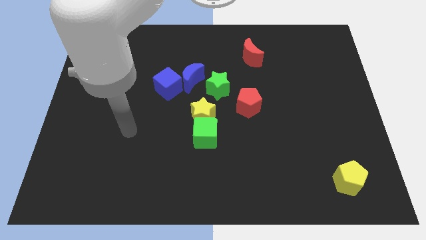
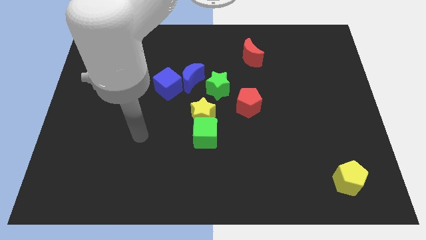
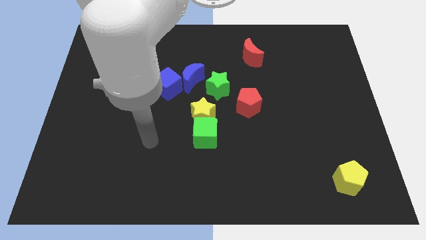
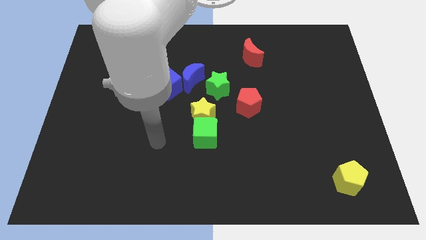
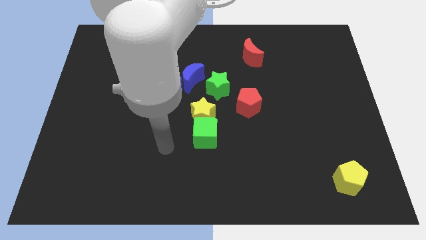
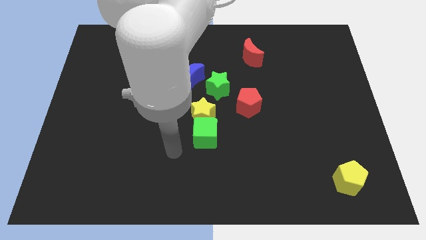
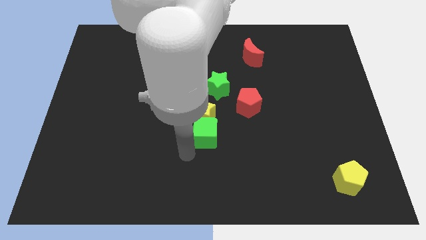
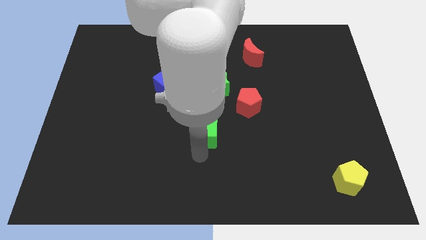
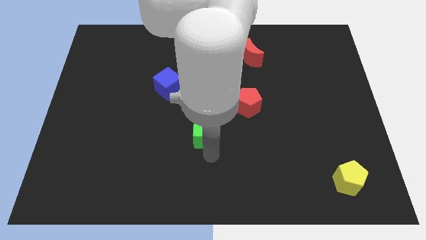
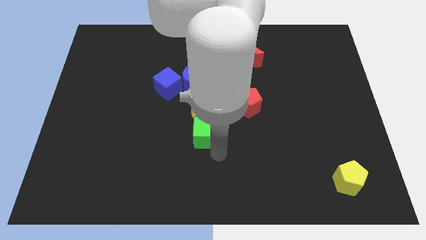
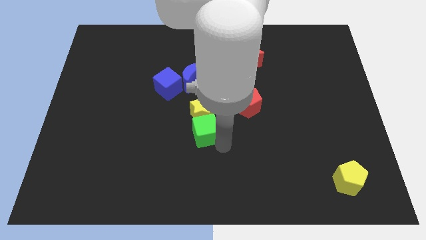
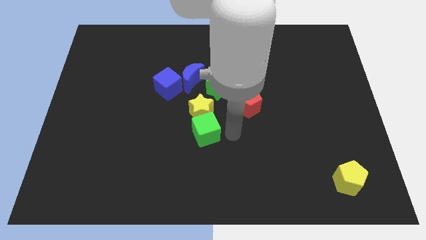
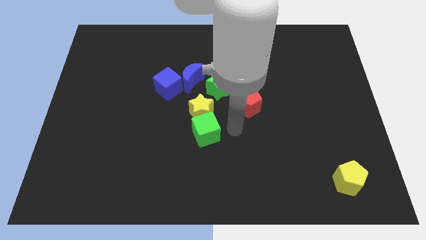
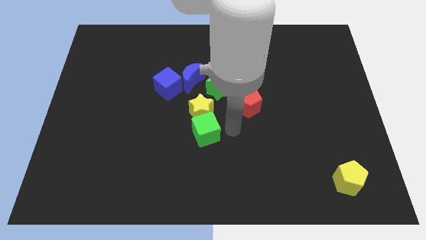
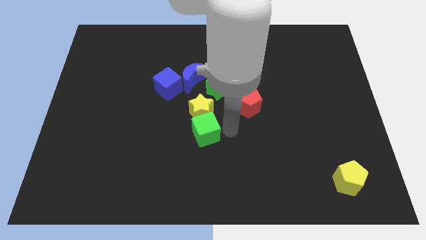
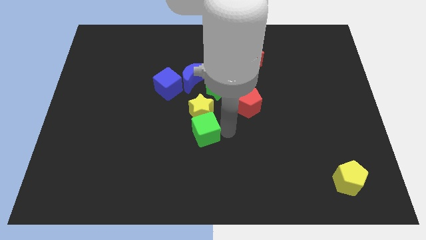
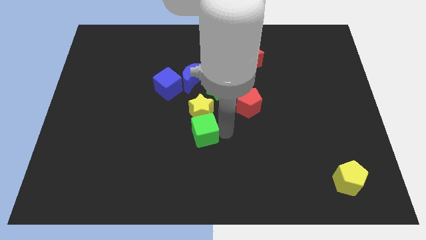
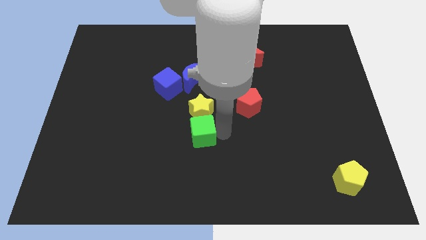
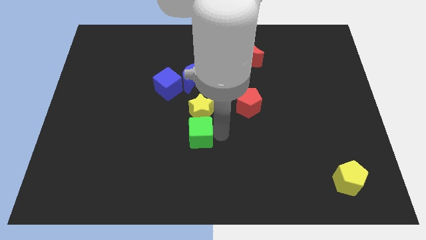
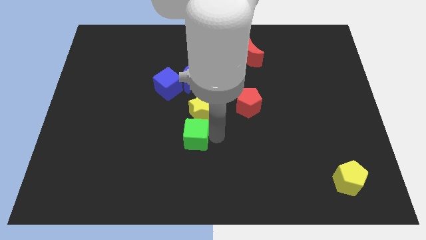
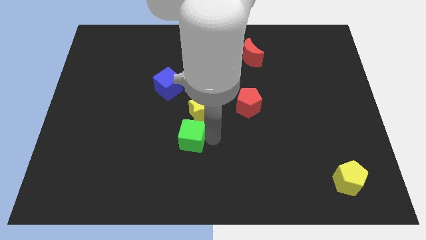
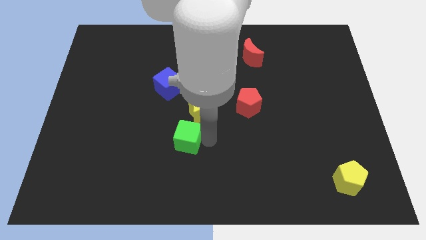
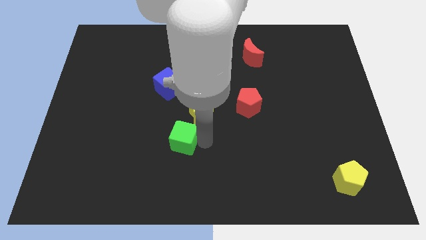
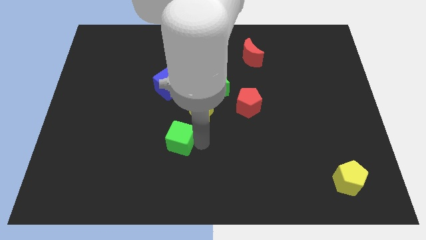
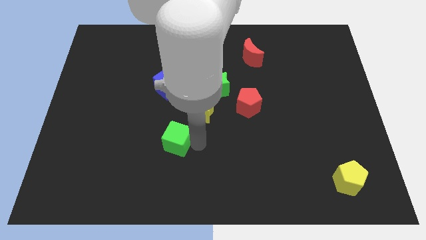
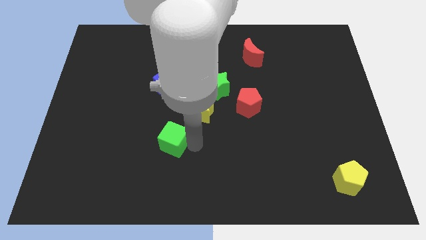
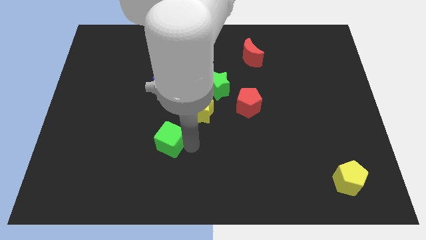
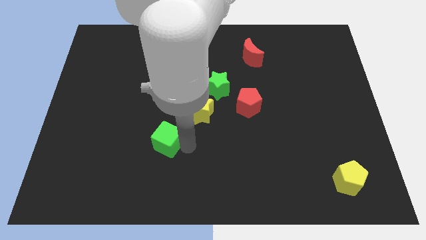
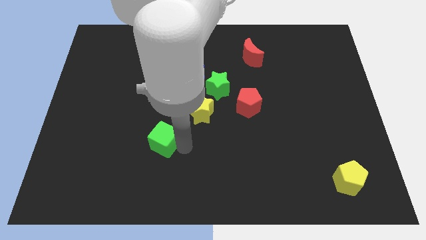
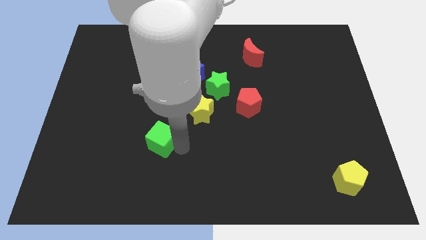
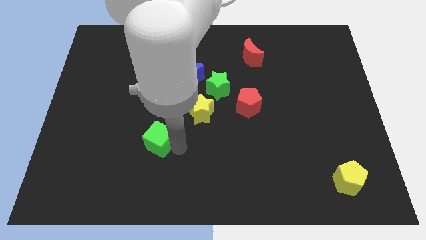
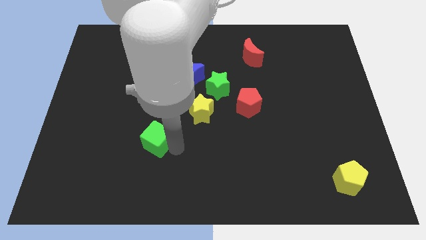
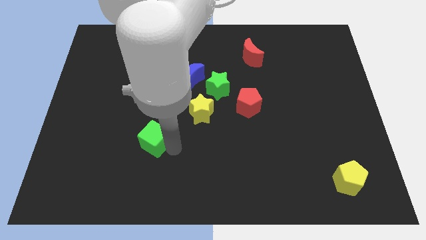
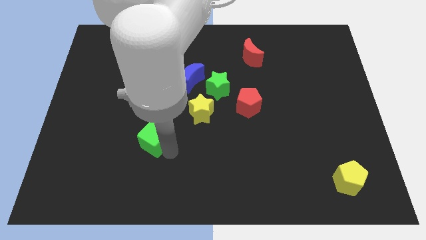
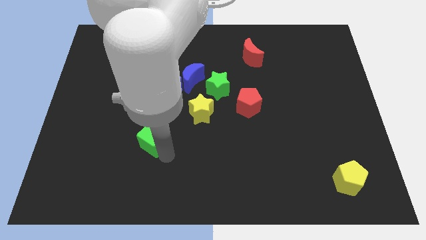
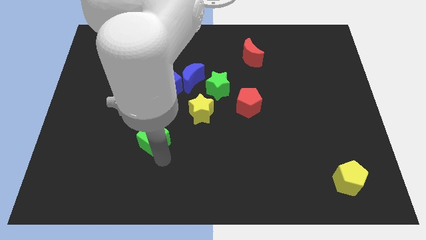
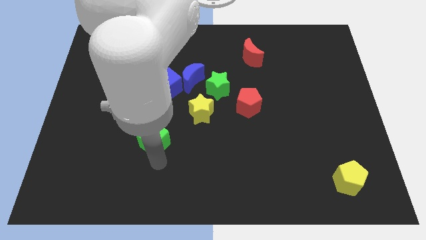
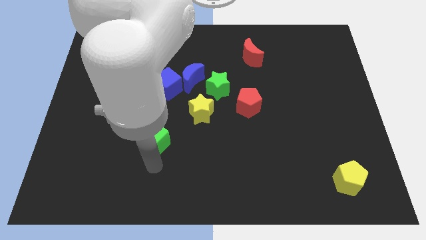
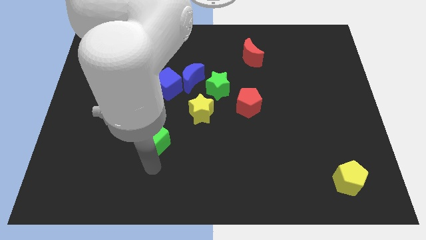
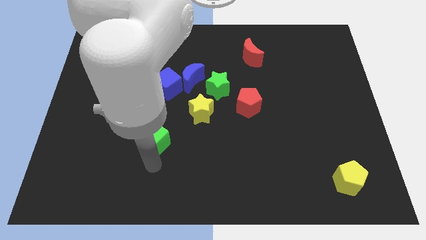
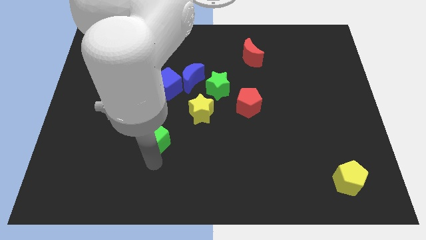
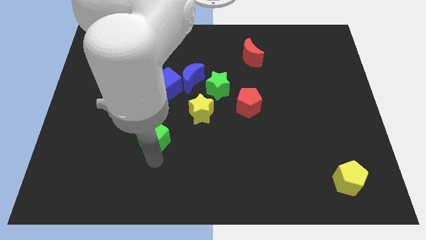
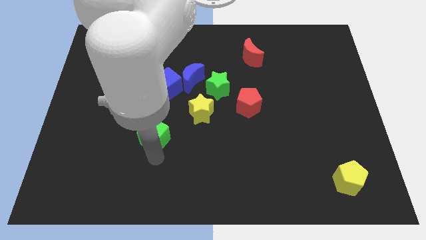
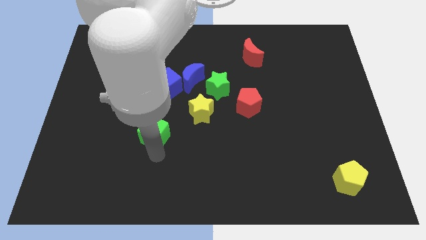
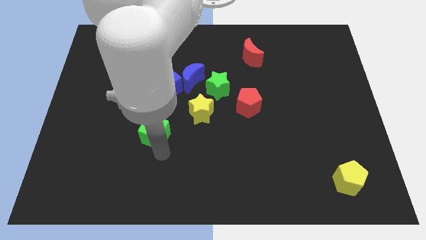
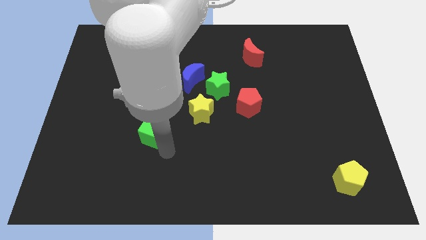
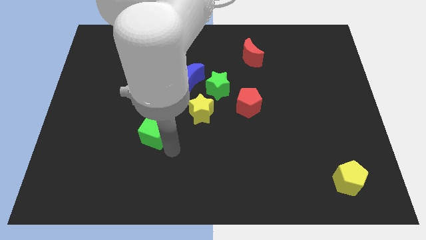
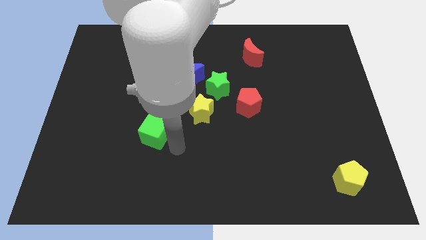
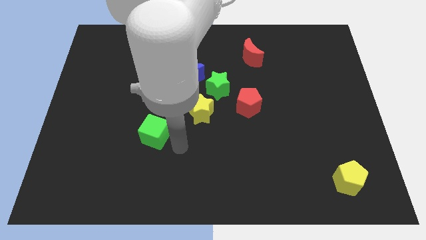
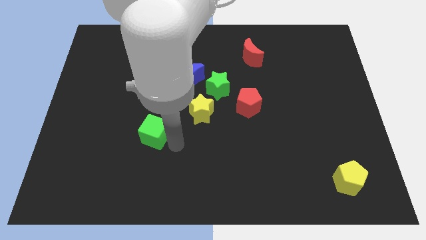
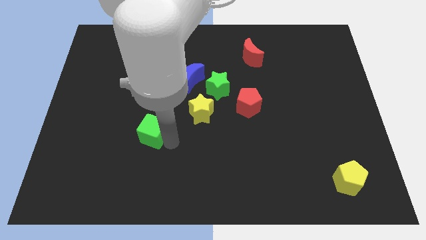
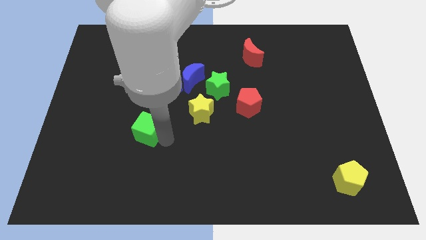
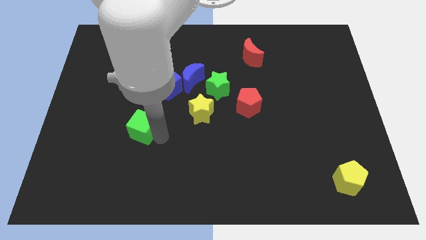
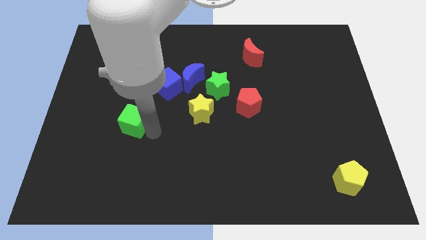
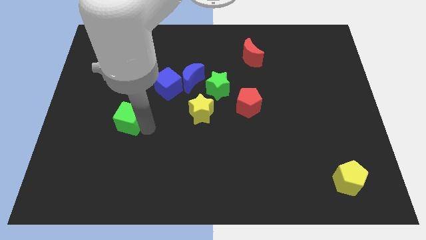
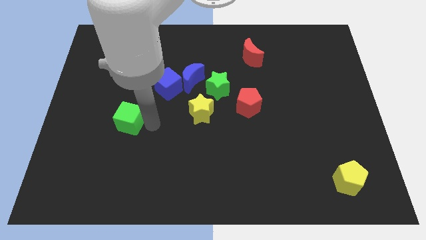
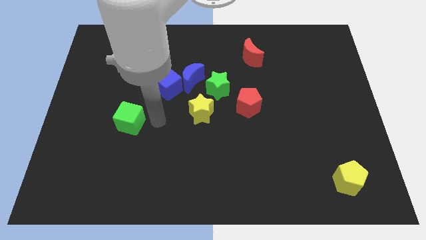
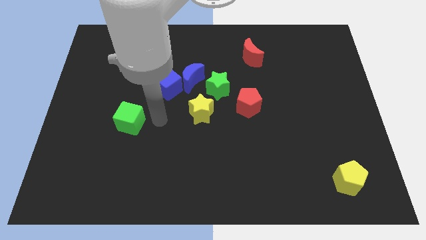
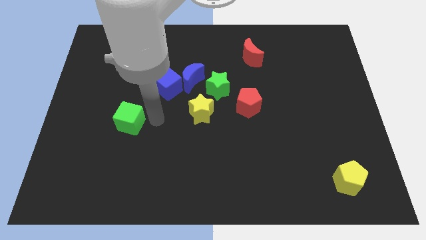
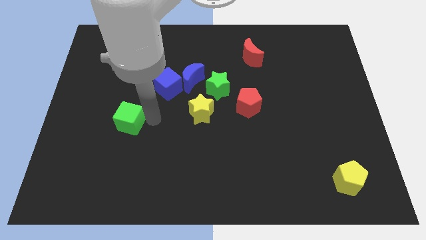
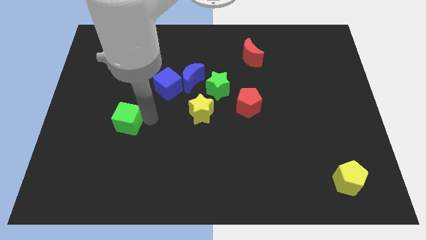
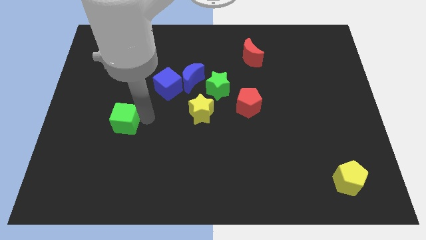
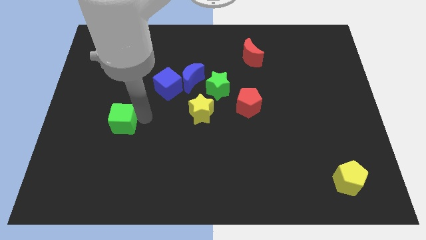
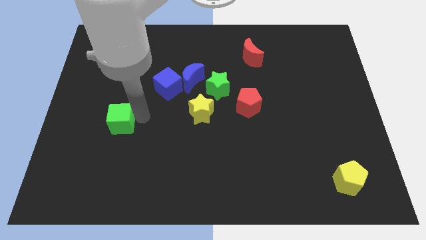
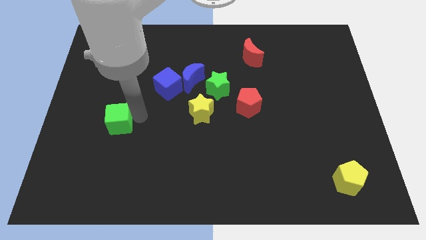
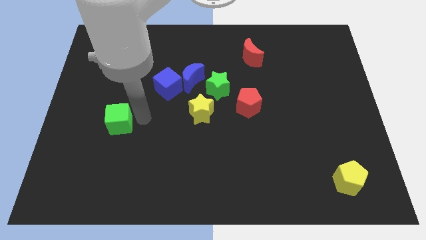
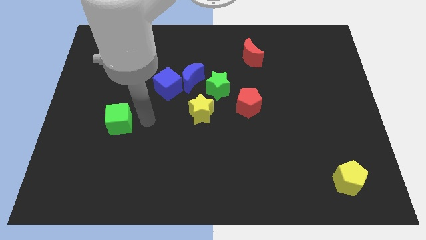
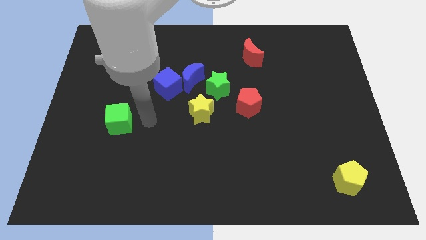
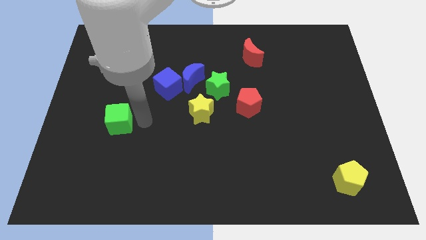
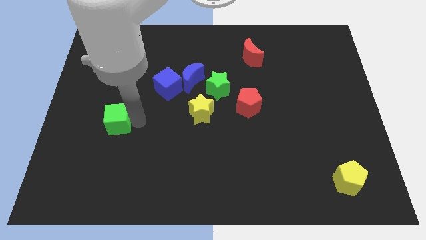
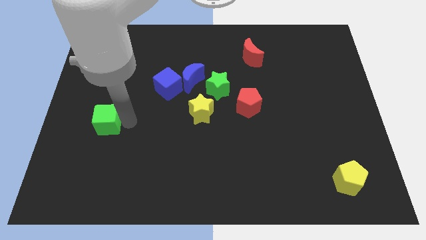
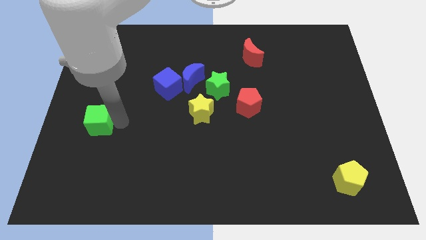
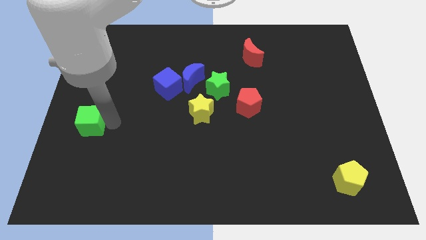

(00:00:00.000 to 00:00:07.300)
move the green cube to the left side
